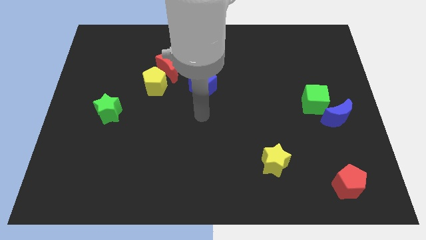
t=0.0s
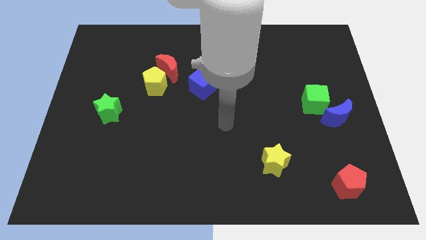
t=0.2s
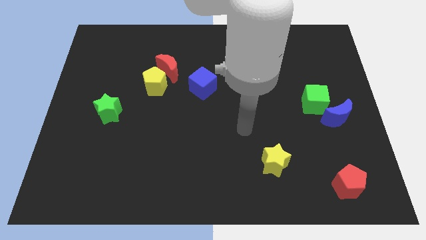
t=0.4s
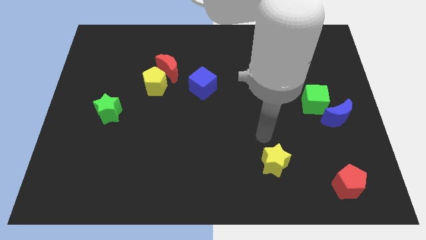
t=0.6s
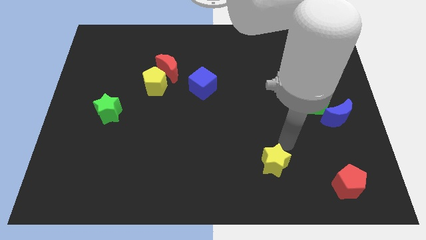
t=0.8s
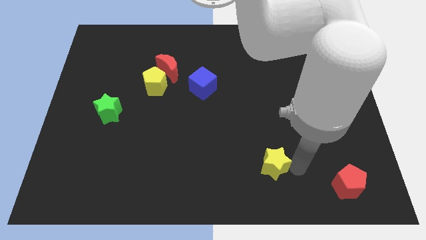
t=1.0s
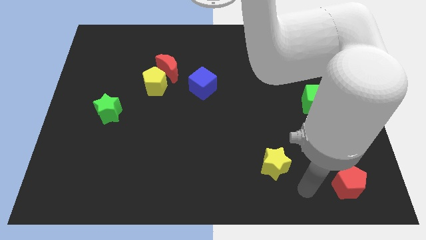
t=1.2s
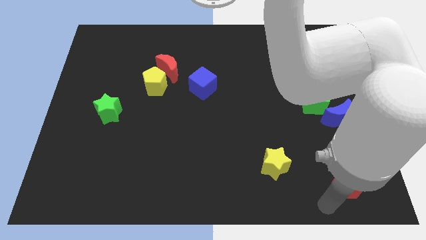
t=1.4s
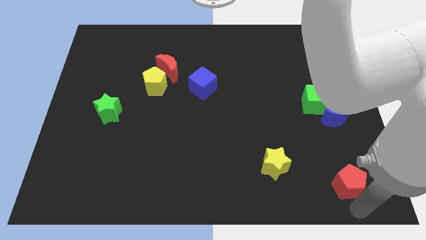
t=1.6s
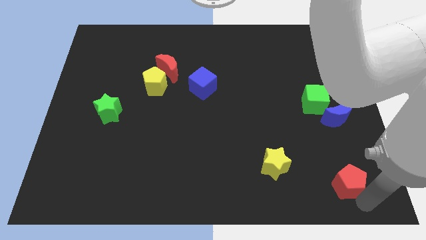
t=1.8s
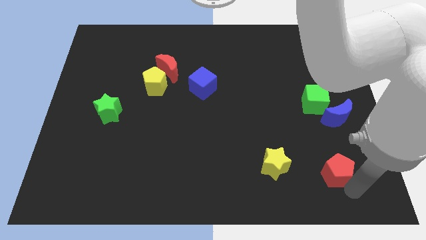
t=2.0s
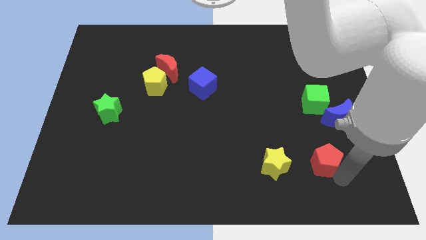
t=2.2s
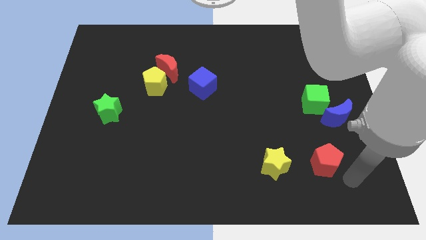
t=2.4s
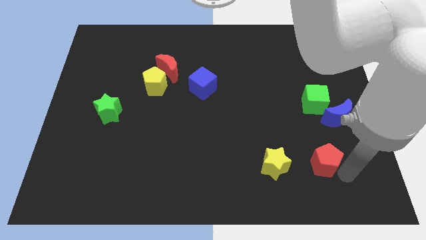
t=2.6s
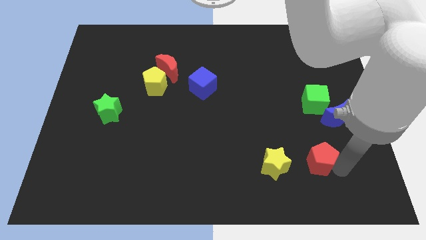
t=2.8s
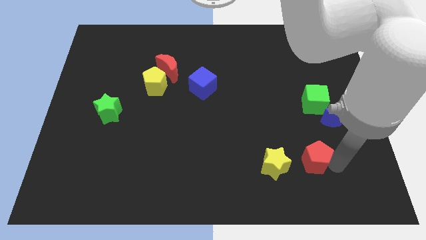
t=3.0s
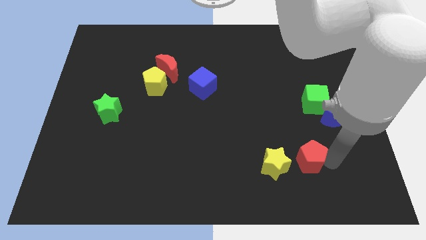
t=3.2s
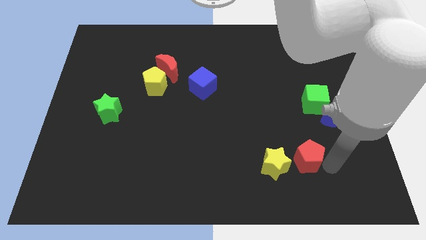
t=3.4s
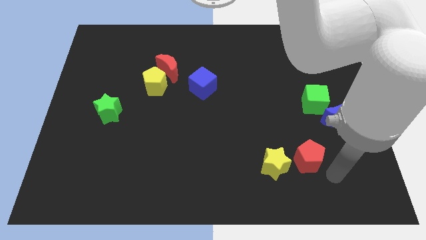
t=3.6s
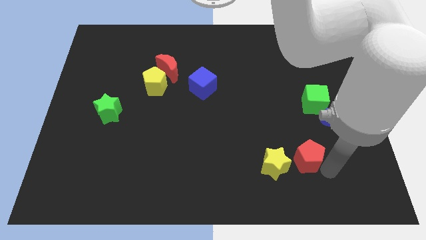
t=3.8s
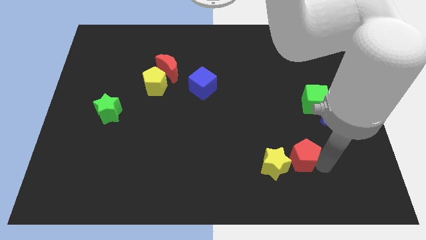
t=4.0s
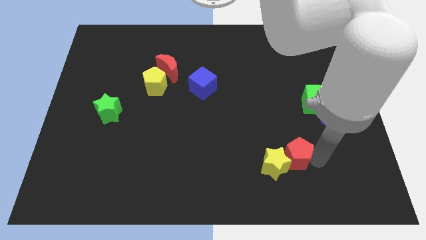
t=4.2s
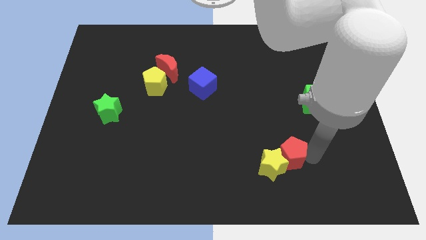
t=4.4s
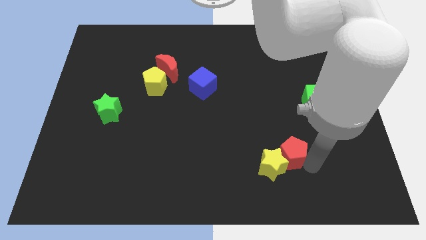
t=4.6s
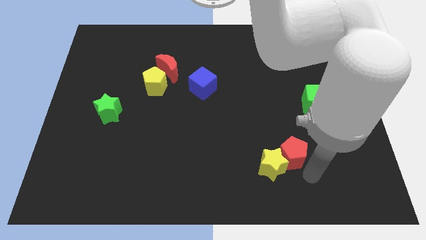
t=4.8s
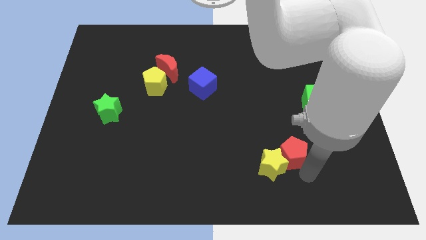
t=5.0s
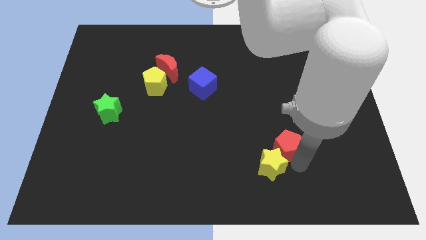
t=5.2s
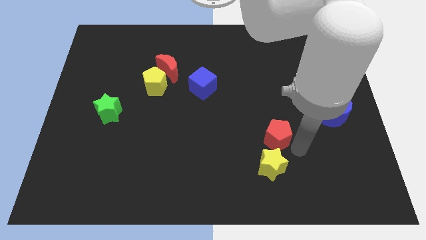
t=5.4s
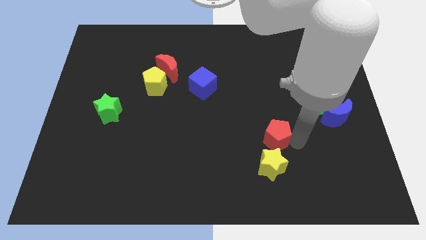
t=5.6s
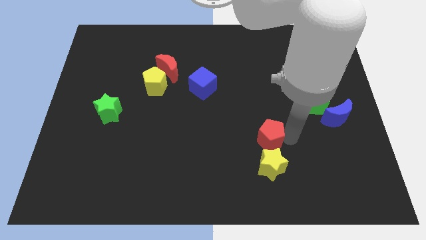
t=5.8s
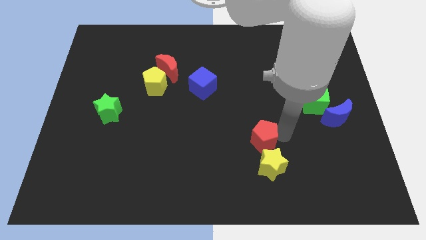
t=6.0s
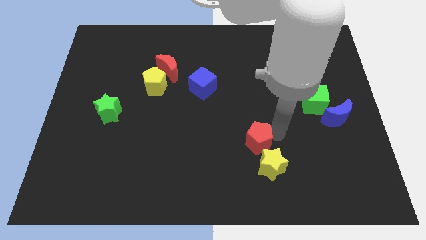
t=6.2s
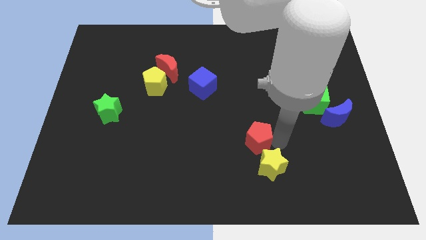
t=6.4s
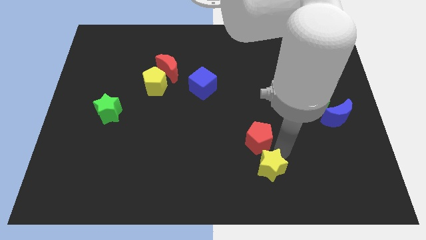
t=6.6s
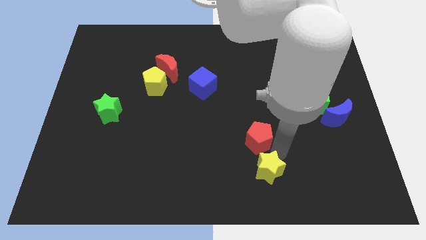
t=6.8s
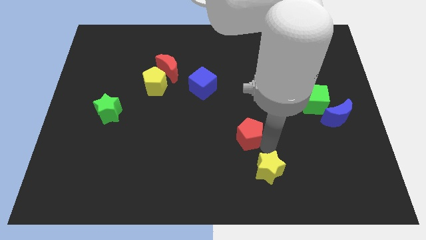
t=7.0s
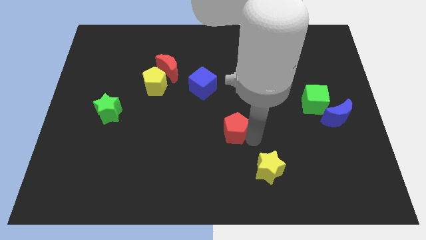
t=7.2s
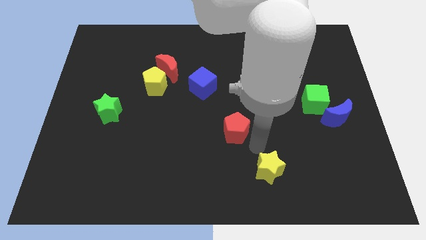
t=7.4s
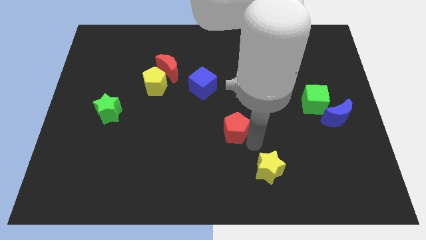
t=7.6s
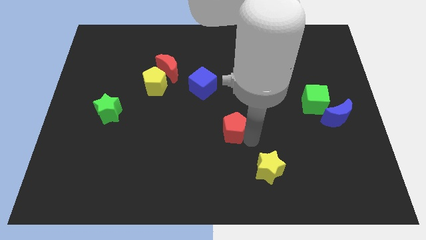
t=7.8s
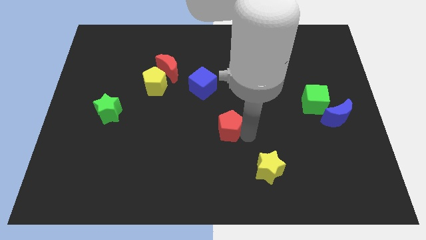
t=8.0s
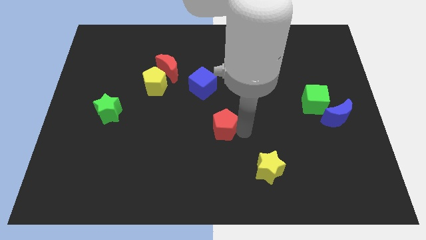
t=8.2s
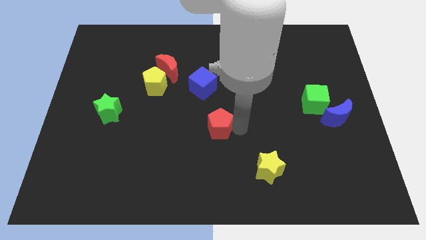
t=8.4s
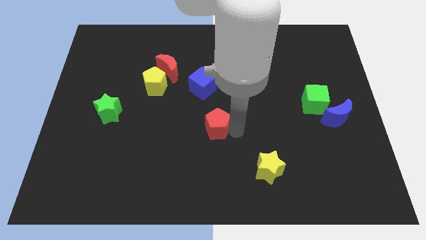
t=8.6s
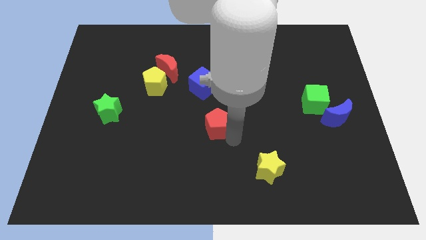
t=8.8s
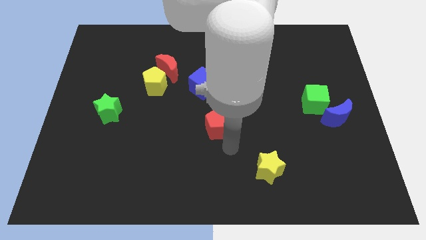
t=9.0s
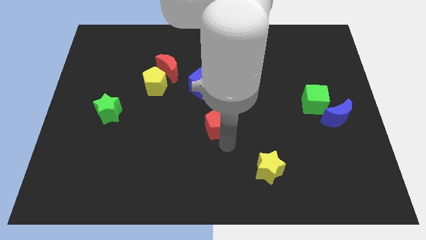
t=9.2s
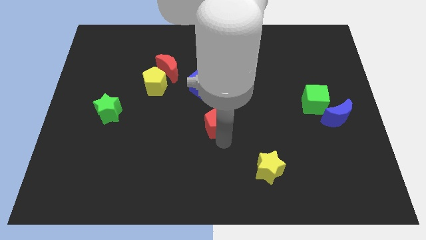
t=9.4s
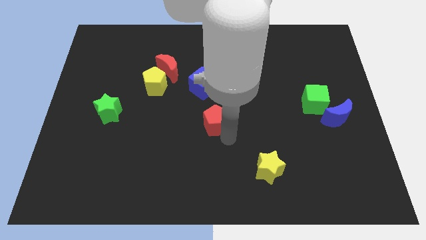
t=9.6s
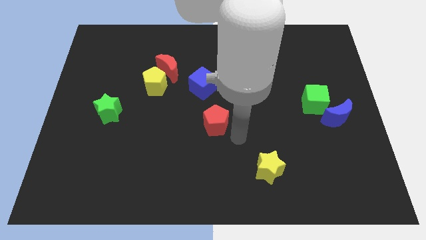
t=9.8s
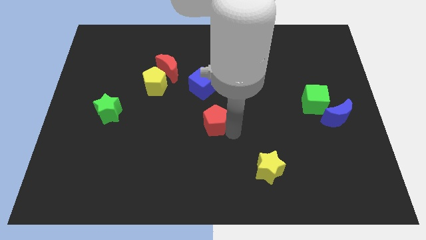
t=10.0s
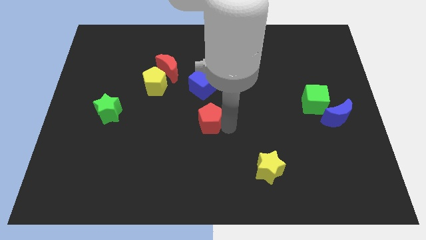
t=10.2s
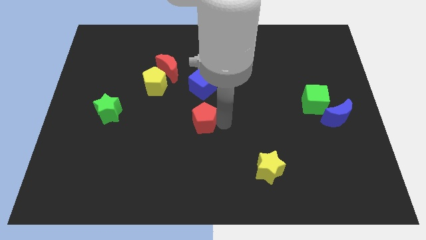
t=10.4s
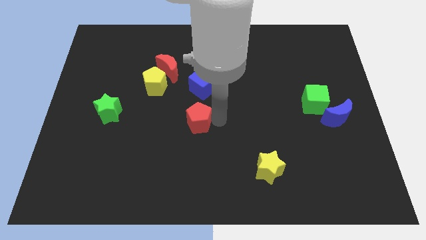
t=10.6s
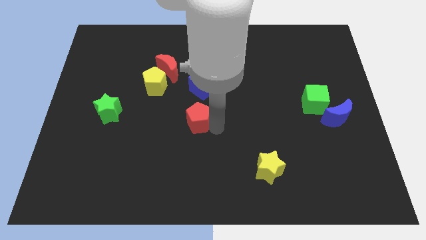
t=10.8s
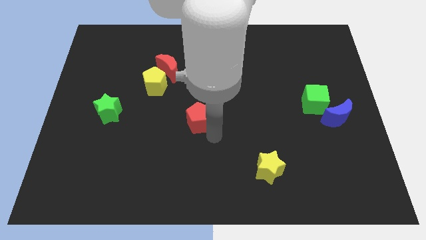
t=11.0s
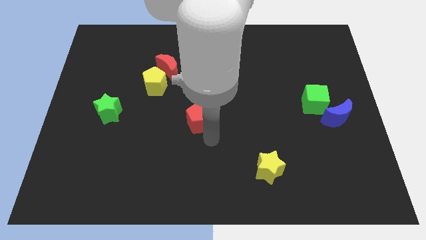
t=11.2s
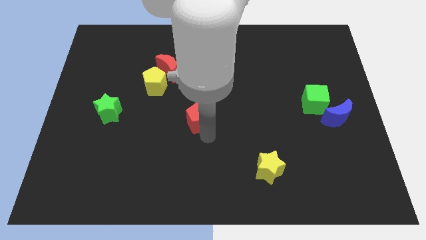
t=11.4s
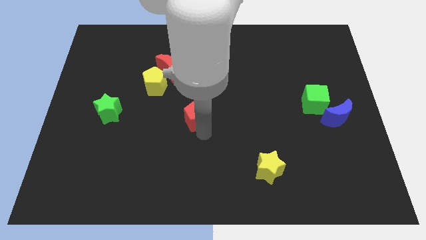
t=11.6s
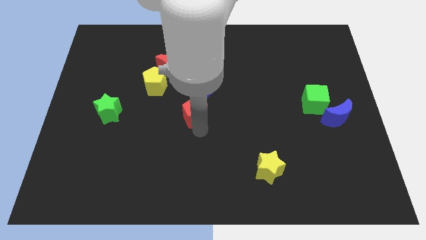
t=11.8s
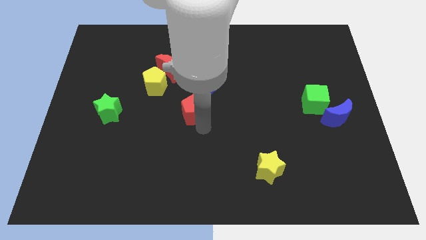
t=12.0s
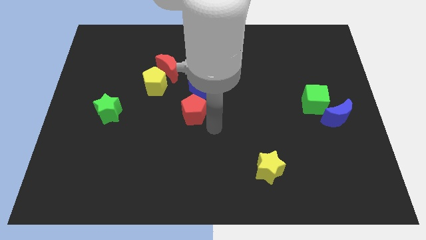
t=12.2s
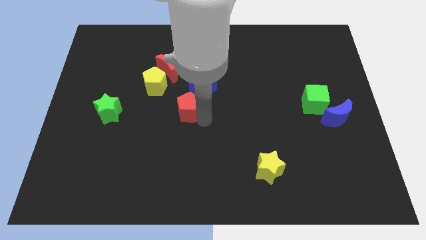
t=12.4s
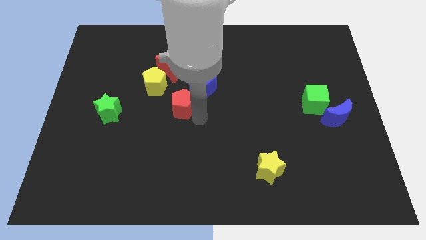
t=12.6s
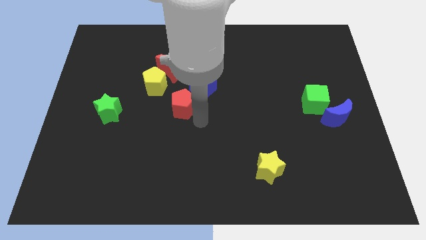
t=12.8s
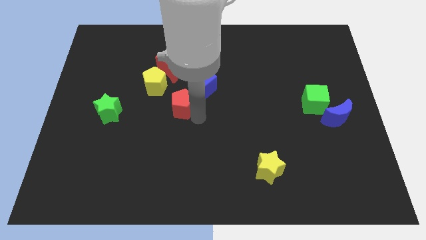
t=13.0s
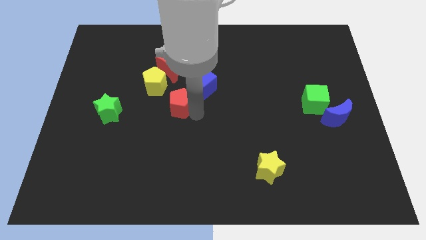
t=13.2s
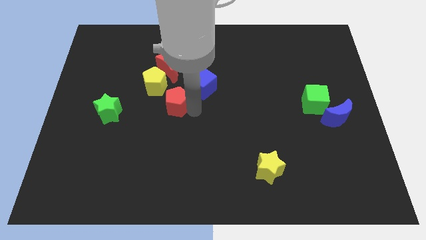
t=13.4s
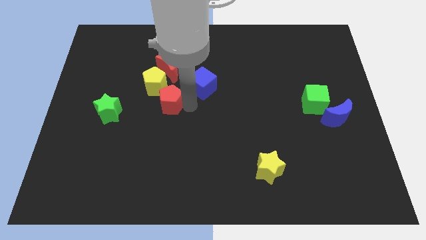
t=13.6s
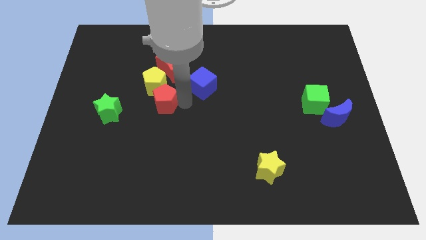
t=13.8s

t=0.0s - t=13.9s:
put the red pentagon to the yellow pentagon
